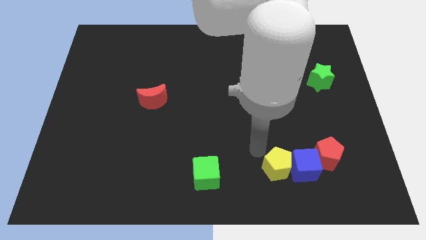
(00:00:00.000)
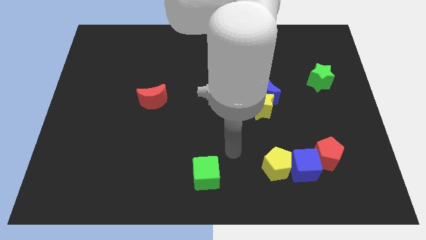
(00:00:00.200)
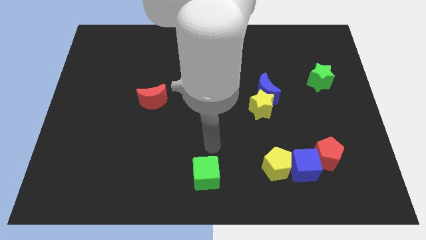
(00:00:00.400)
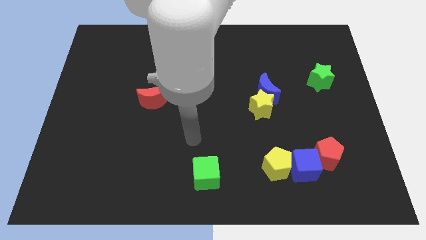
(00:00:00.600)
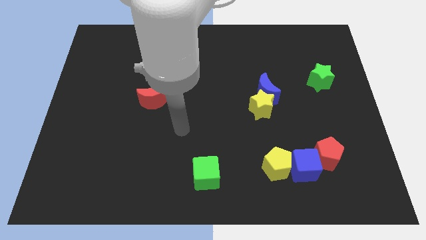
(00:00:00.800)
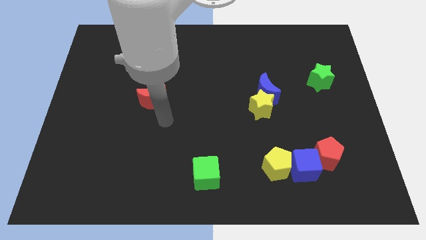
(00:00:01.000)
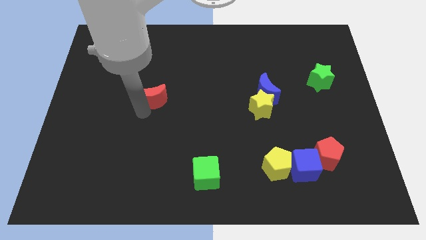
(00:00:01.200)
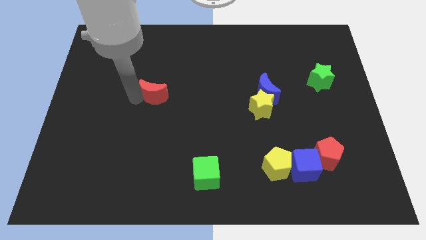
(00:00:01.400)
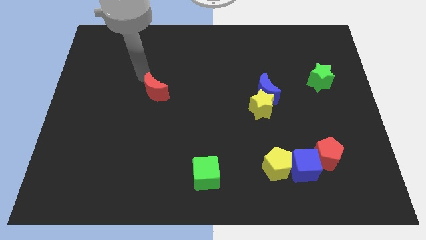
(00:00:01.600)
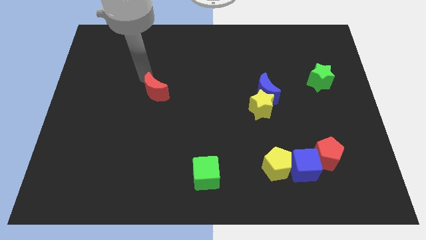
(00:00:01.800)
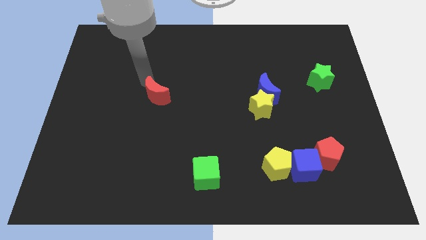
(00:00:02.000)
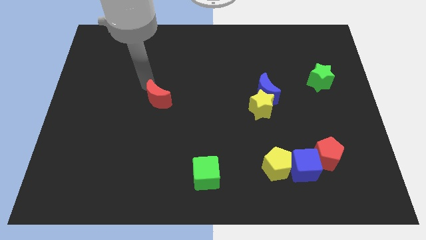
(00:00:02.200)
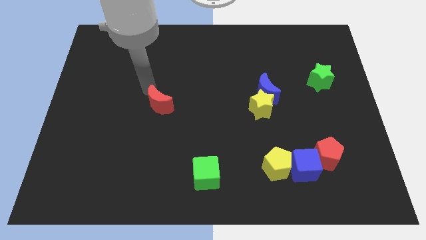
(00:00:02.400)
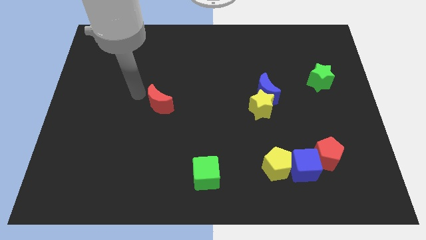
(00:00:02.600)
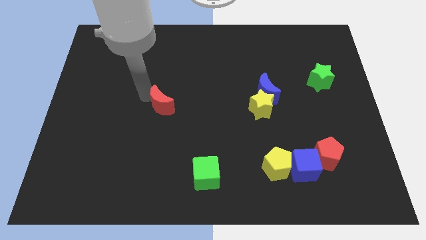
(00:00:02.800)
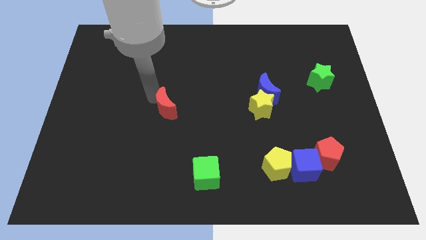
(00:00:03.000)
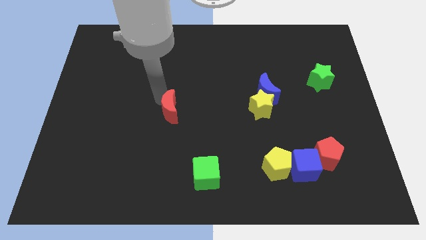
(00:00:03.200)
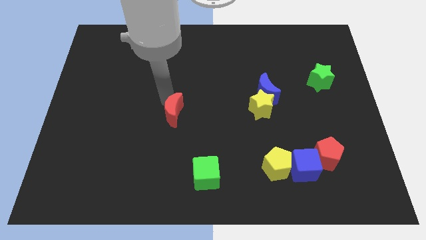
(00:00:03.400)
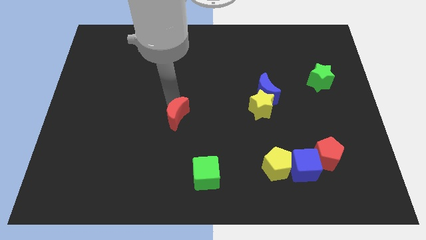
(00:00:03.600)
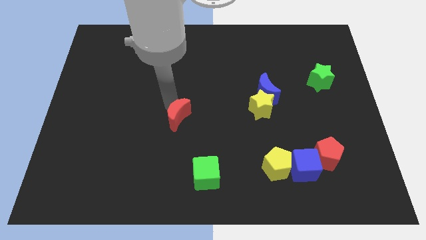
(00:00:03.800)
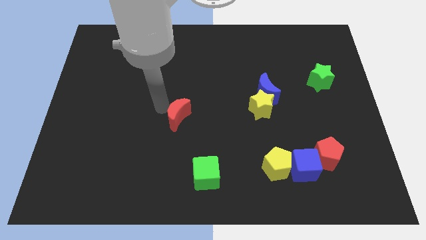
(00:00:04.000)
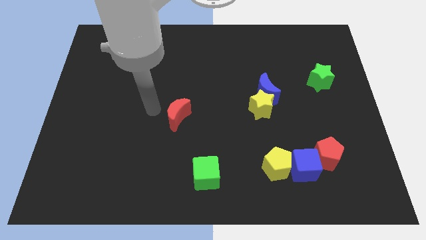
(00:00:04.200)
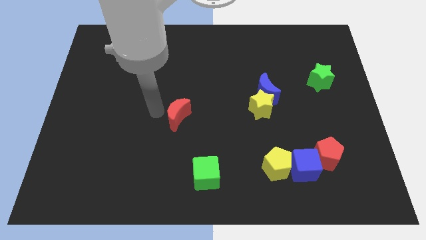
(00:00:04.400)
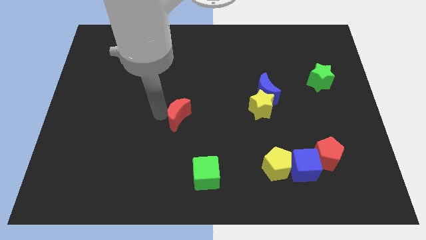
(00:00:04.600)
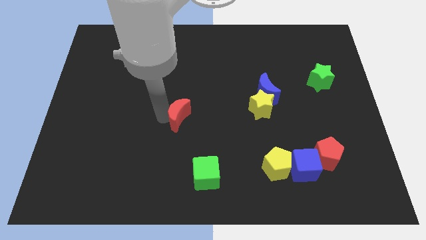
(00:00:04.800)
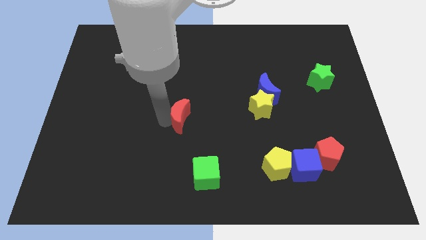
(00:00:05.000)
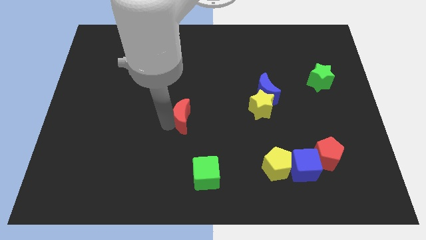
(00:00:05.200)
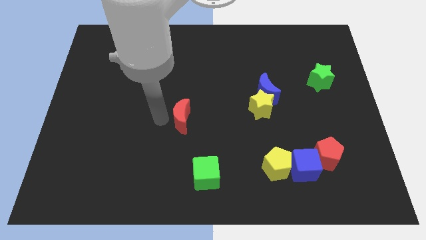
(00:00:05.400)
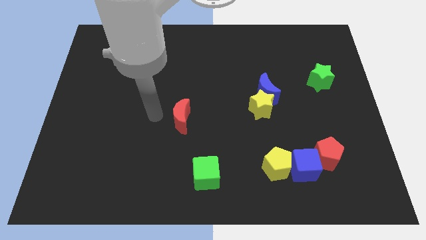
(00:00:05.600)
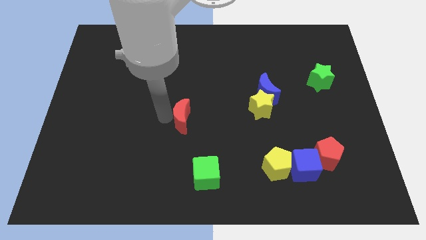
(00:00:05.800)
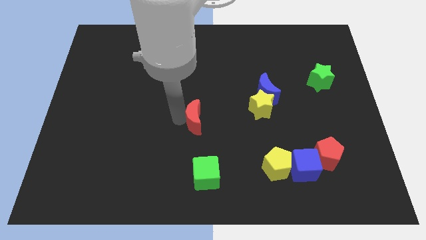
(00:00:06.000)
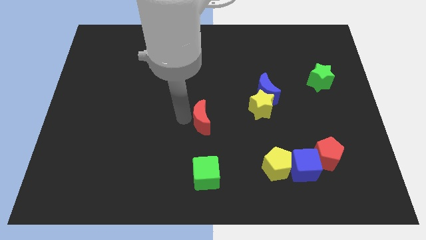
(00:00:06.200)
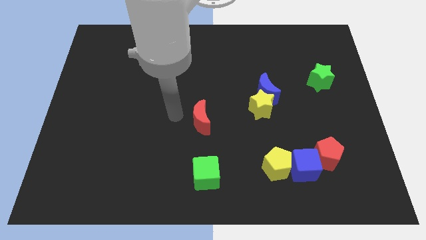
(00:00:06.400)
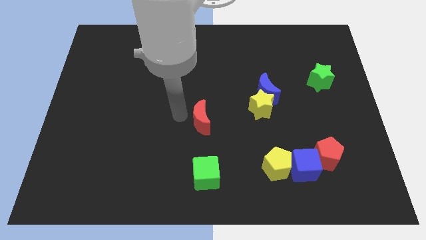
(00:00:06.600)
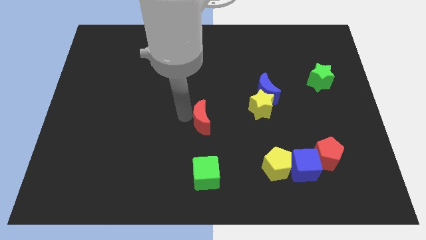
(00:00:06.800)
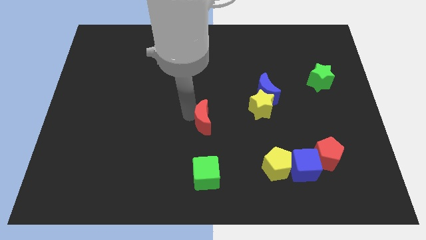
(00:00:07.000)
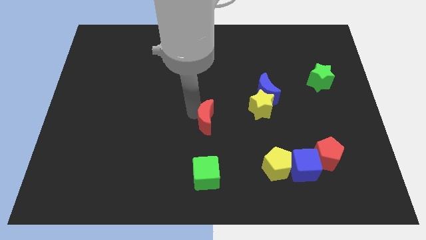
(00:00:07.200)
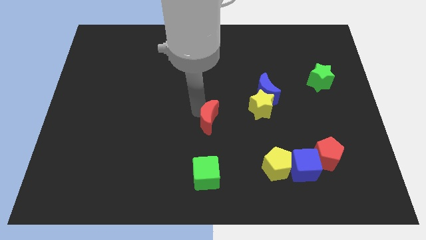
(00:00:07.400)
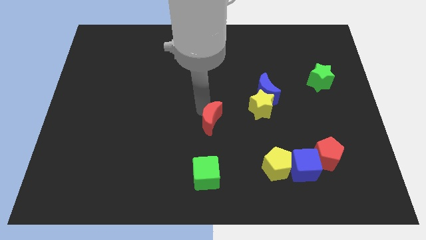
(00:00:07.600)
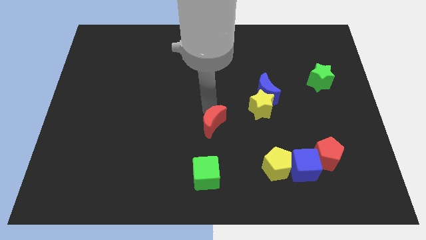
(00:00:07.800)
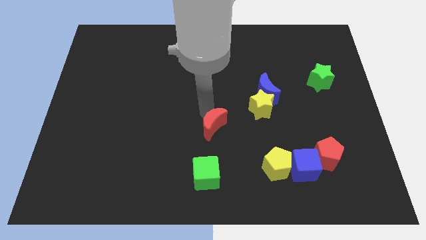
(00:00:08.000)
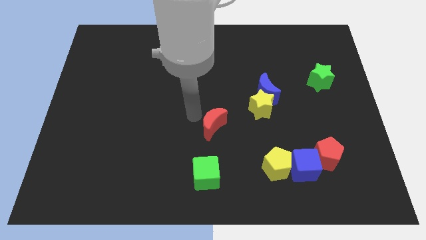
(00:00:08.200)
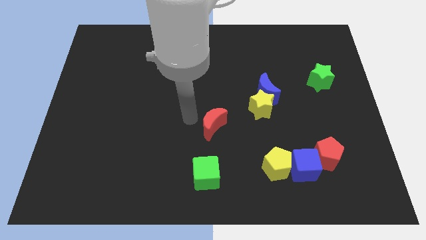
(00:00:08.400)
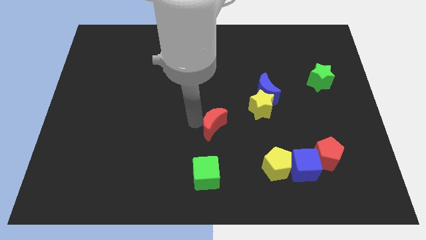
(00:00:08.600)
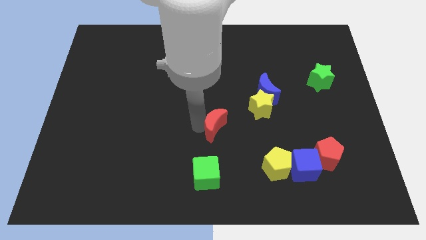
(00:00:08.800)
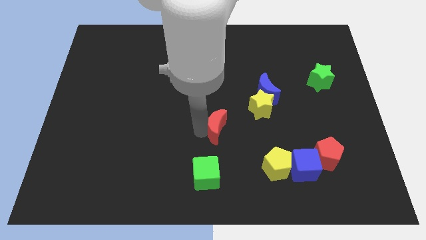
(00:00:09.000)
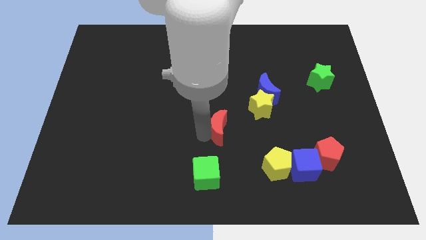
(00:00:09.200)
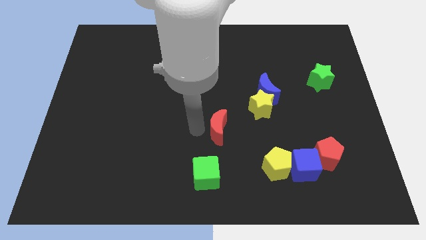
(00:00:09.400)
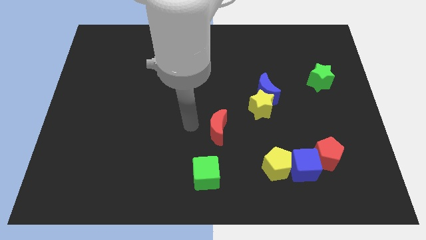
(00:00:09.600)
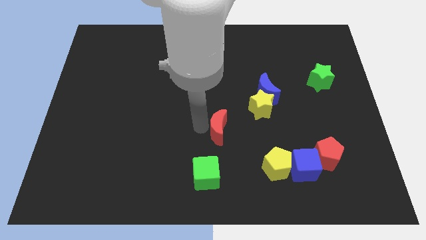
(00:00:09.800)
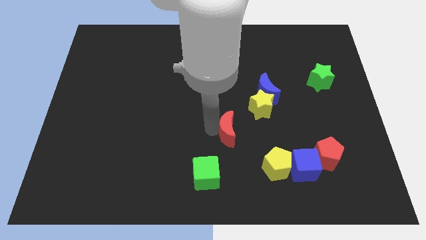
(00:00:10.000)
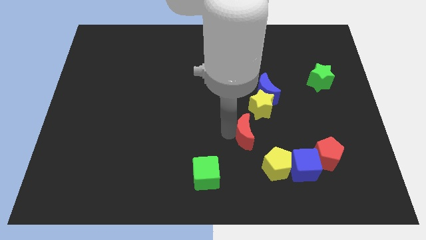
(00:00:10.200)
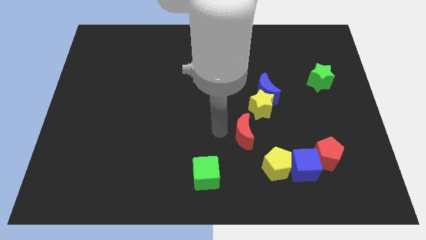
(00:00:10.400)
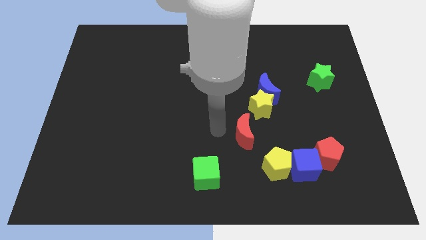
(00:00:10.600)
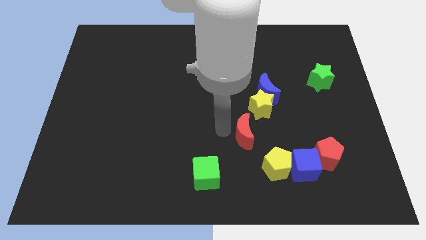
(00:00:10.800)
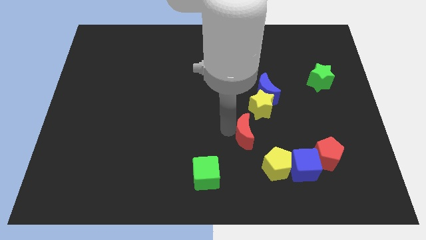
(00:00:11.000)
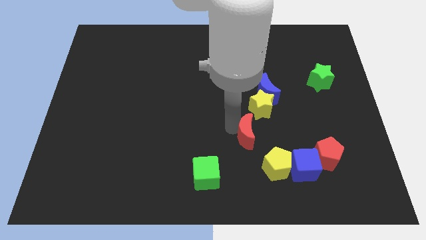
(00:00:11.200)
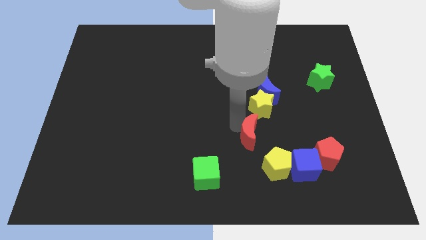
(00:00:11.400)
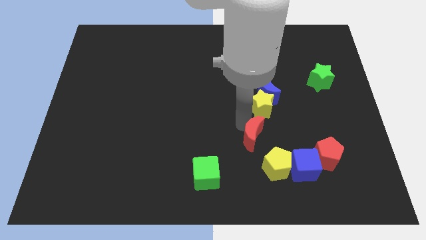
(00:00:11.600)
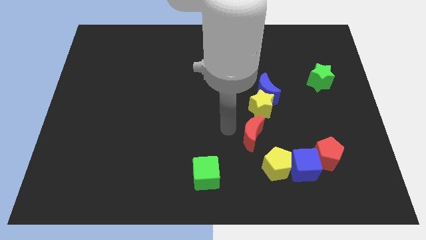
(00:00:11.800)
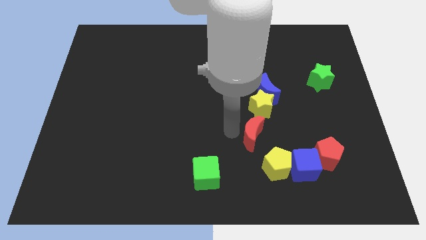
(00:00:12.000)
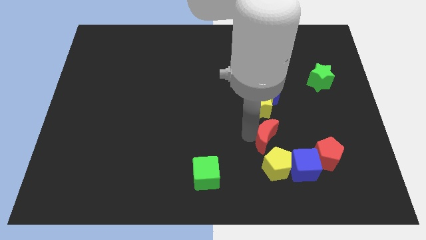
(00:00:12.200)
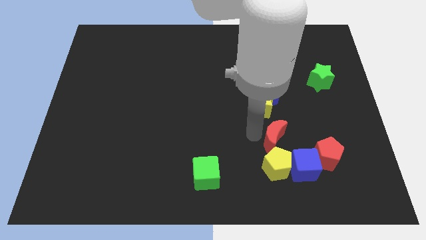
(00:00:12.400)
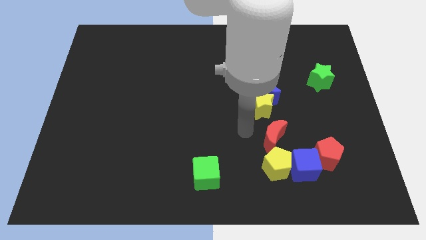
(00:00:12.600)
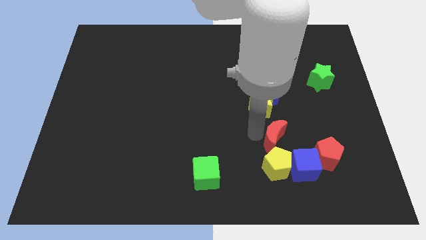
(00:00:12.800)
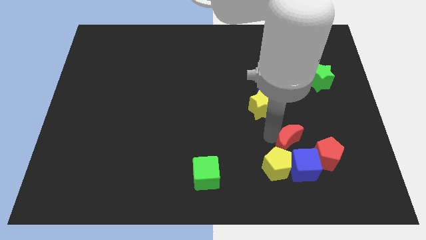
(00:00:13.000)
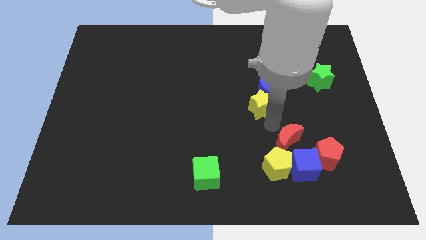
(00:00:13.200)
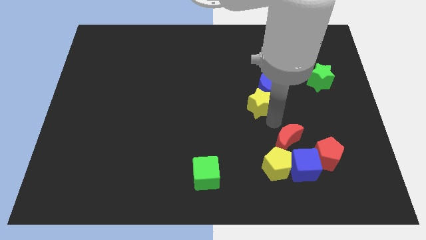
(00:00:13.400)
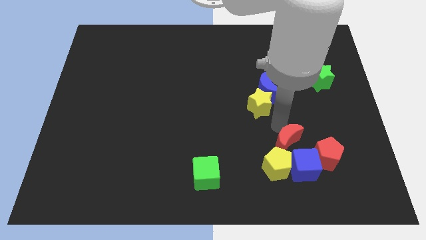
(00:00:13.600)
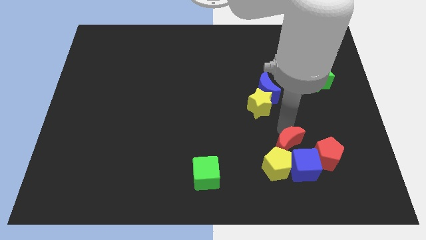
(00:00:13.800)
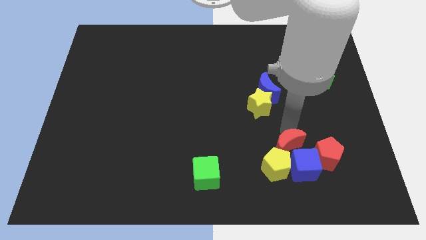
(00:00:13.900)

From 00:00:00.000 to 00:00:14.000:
push the red moon towards the blue cube
